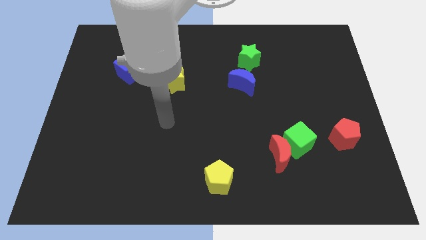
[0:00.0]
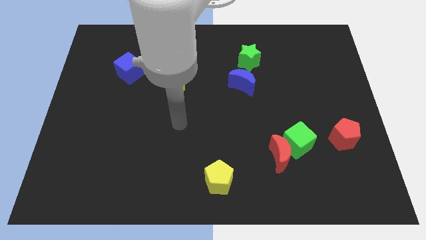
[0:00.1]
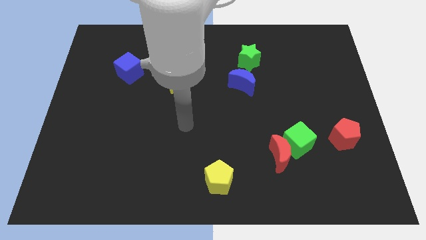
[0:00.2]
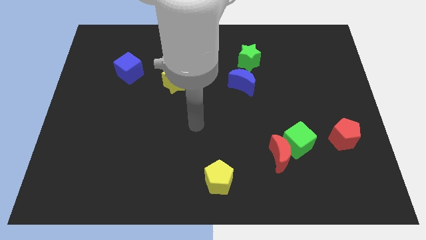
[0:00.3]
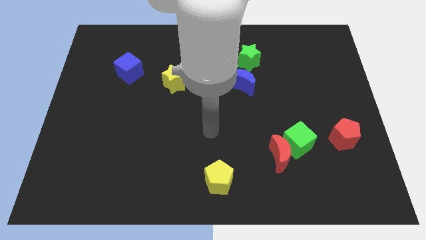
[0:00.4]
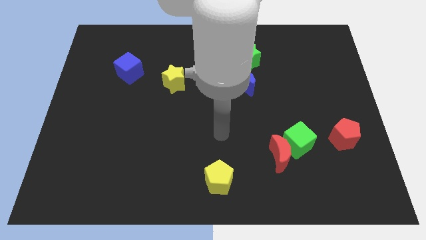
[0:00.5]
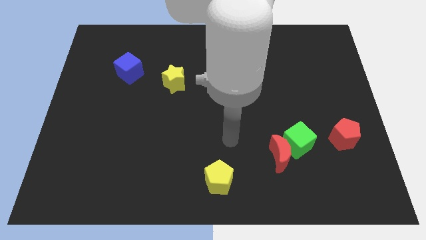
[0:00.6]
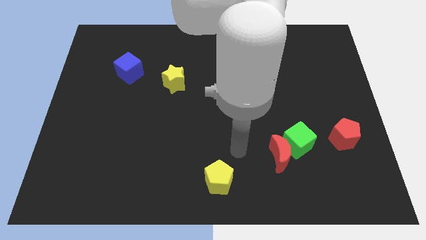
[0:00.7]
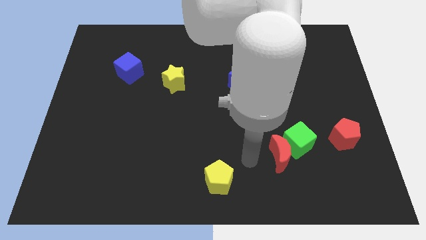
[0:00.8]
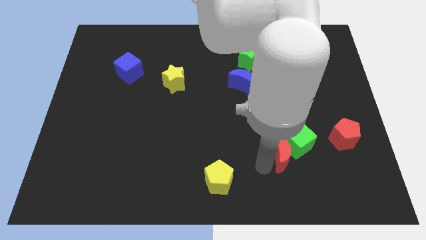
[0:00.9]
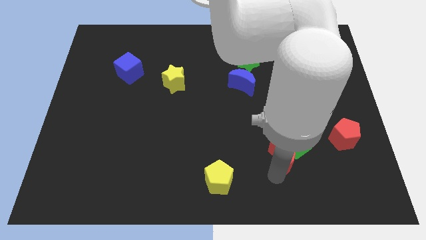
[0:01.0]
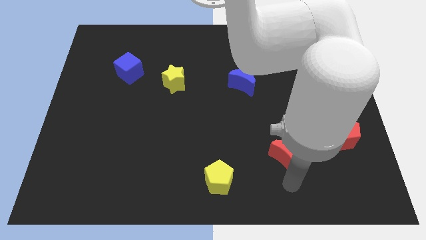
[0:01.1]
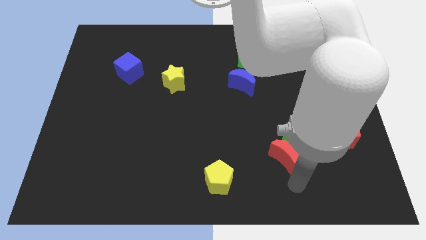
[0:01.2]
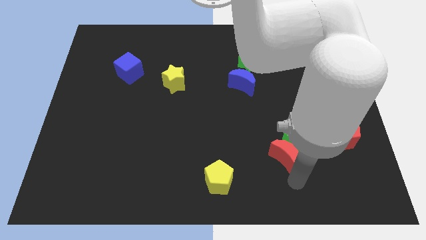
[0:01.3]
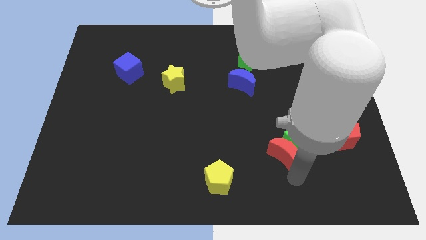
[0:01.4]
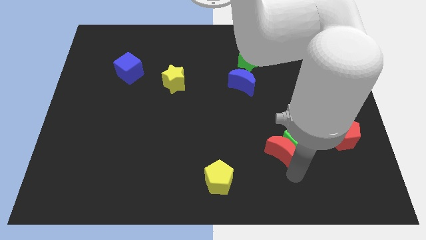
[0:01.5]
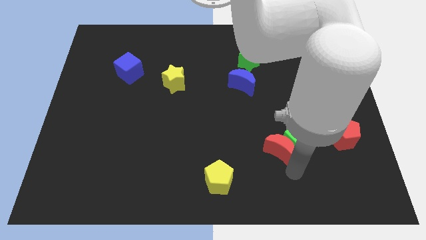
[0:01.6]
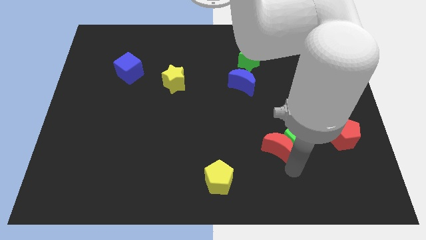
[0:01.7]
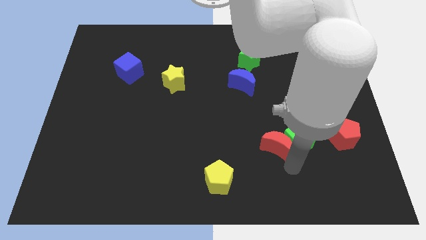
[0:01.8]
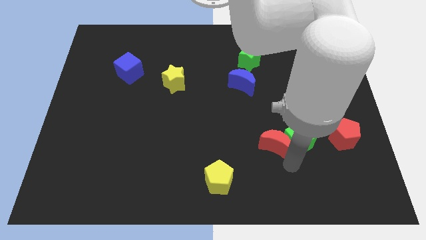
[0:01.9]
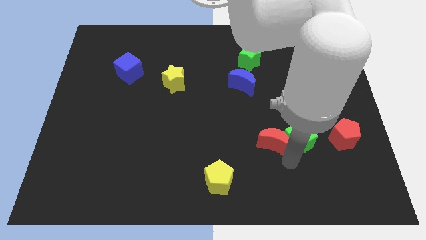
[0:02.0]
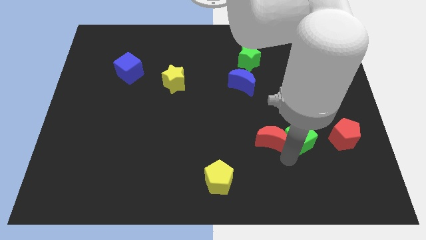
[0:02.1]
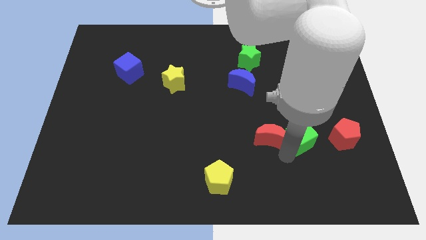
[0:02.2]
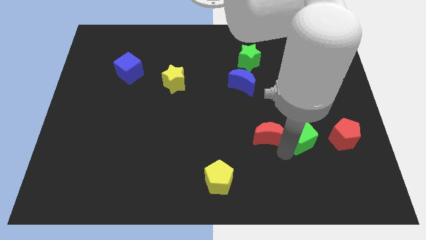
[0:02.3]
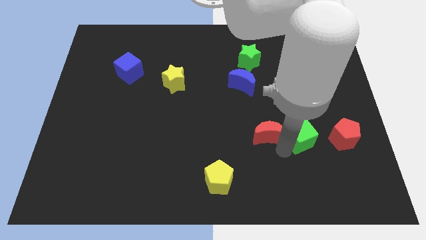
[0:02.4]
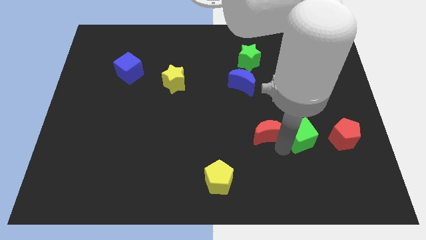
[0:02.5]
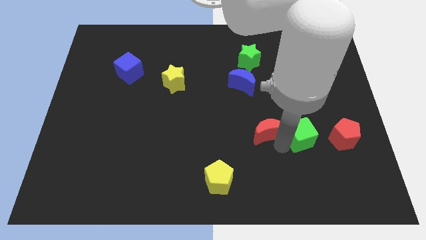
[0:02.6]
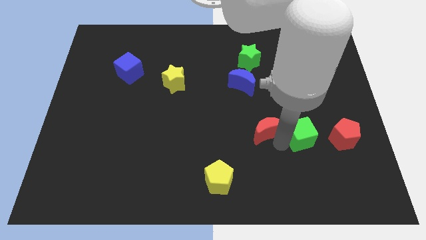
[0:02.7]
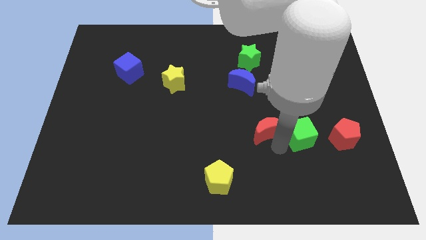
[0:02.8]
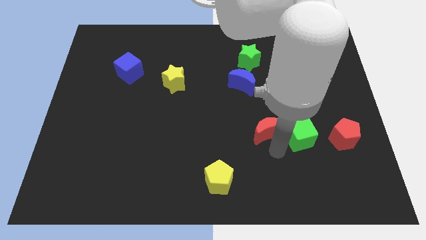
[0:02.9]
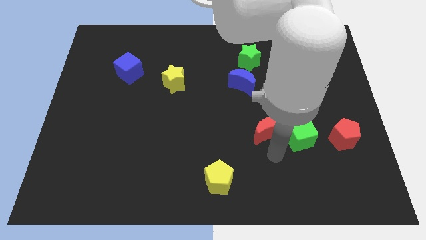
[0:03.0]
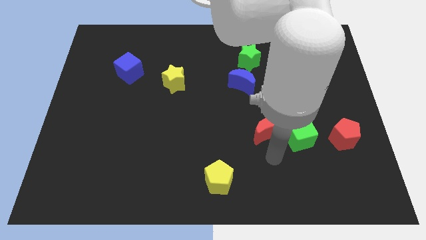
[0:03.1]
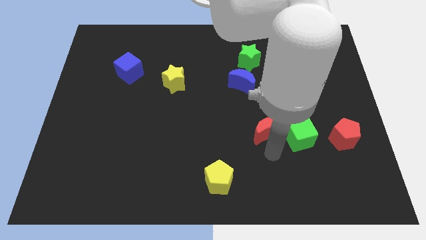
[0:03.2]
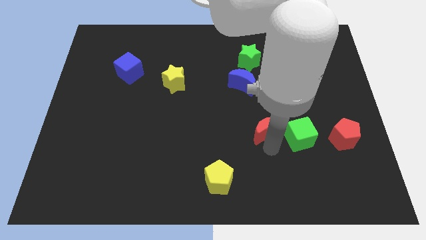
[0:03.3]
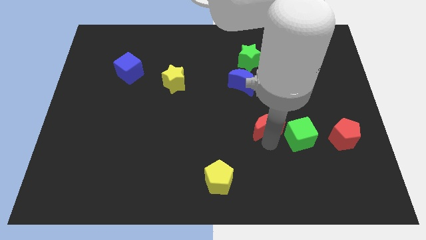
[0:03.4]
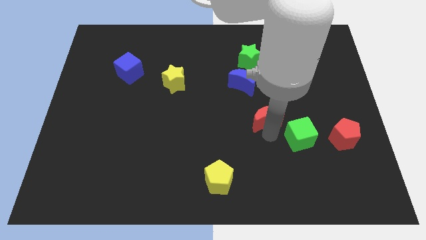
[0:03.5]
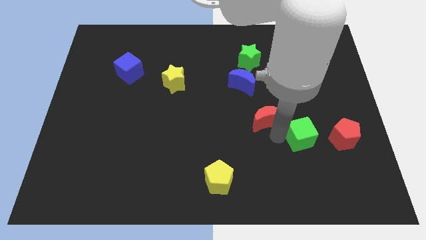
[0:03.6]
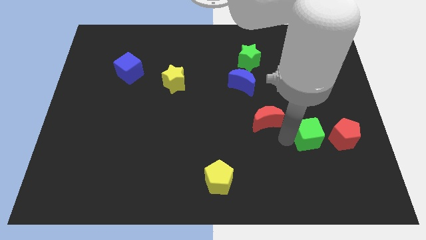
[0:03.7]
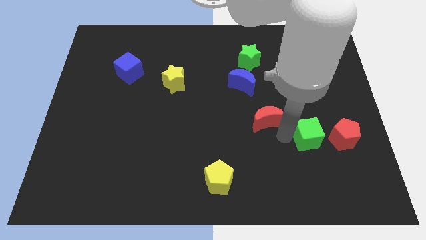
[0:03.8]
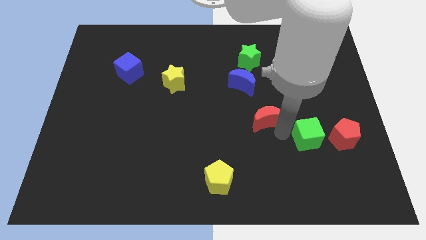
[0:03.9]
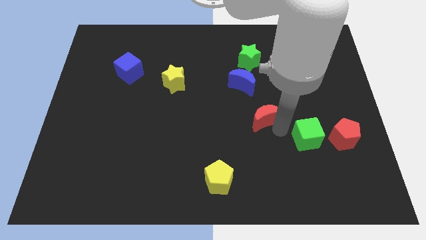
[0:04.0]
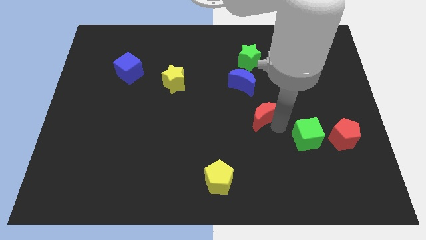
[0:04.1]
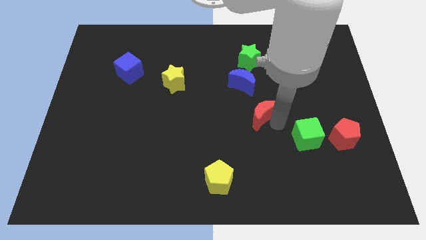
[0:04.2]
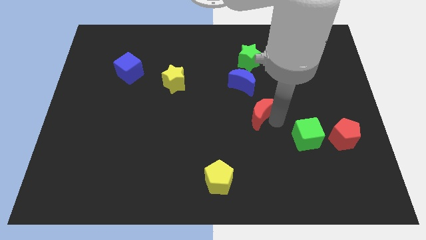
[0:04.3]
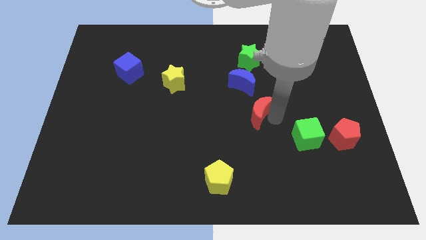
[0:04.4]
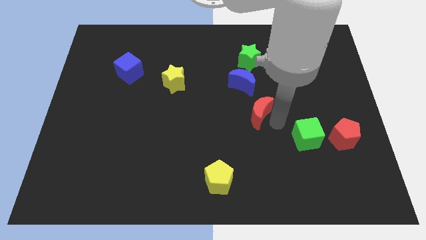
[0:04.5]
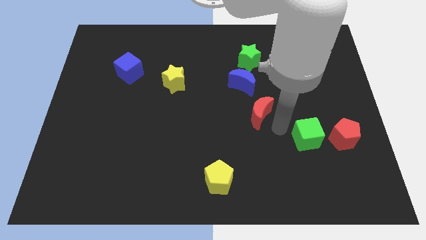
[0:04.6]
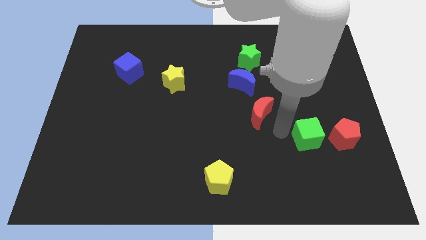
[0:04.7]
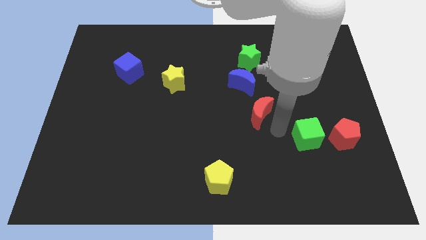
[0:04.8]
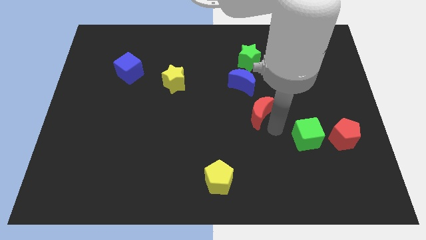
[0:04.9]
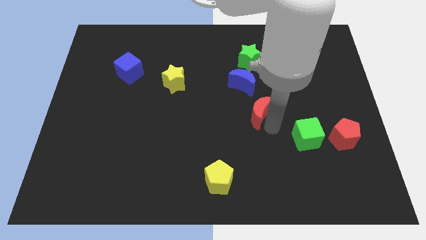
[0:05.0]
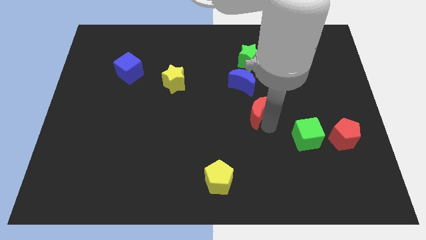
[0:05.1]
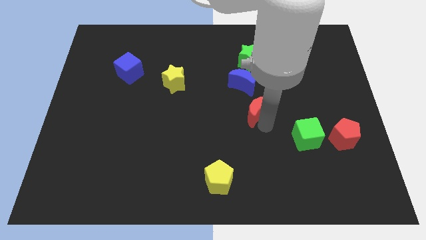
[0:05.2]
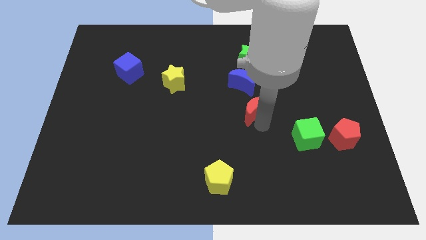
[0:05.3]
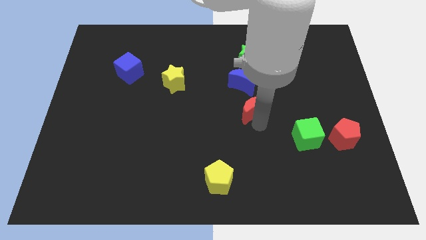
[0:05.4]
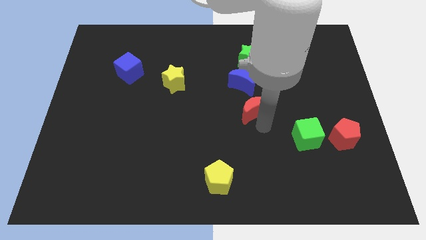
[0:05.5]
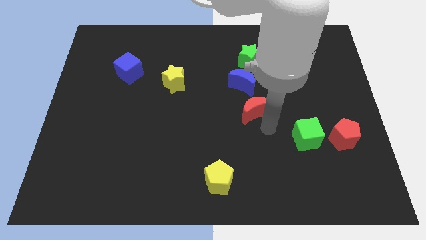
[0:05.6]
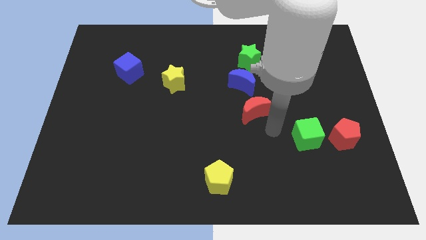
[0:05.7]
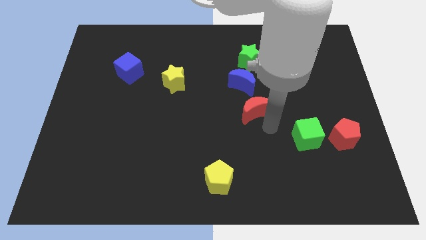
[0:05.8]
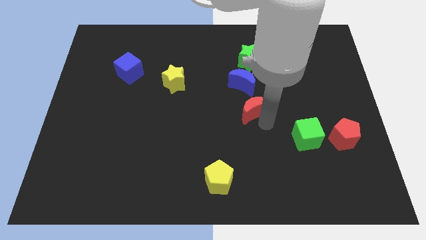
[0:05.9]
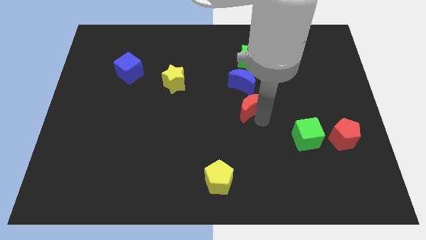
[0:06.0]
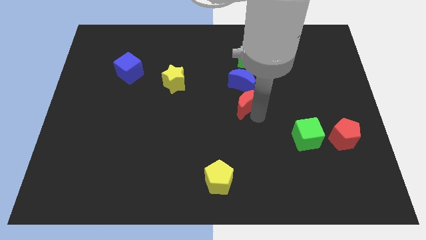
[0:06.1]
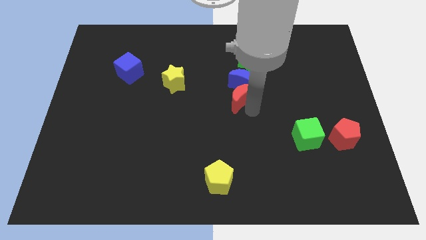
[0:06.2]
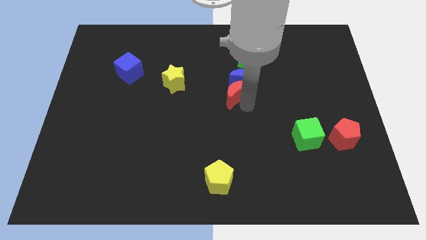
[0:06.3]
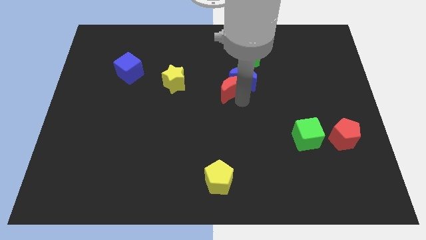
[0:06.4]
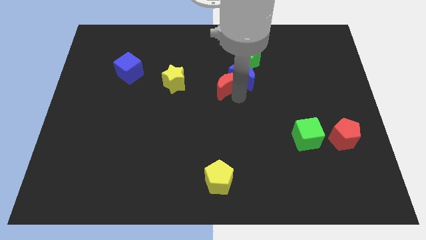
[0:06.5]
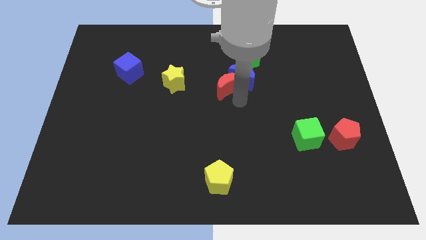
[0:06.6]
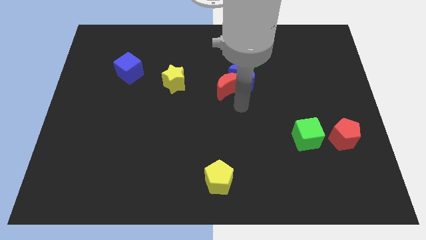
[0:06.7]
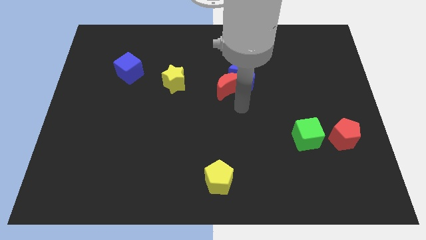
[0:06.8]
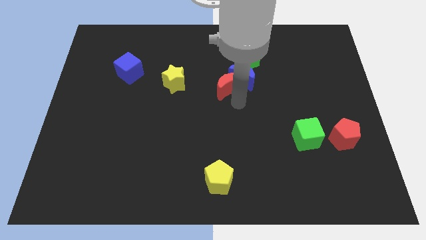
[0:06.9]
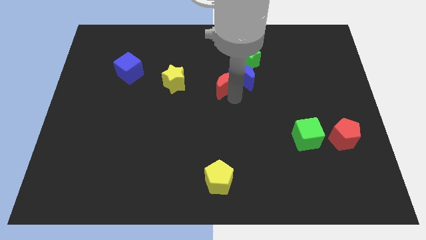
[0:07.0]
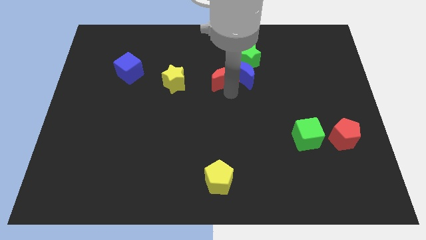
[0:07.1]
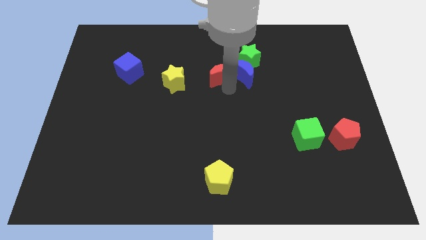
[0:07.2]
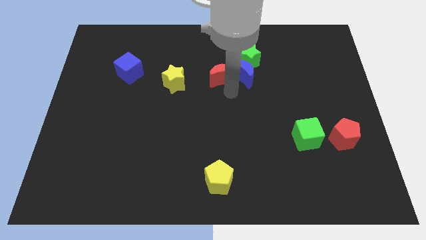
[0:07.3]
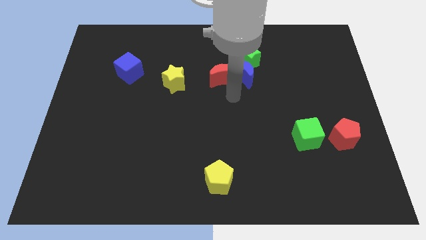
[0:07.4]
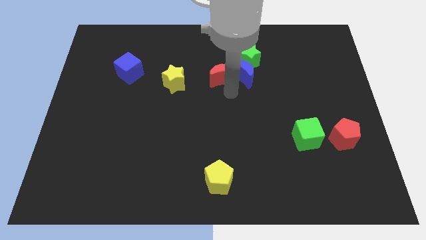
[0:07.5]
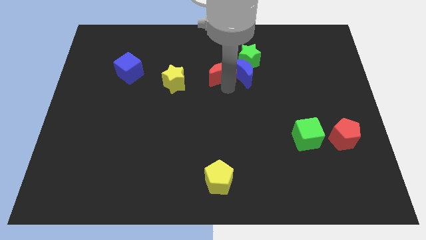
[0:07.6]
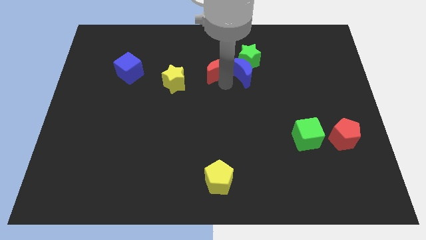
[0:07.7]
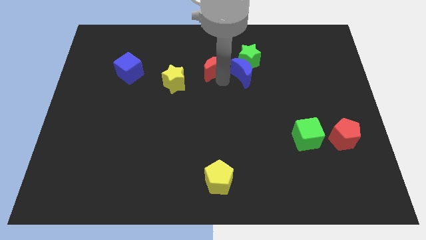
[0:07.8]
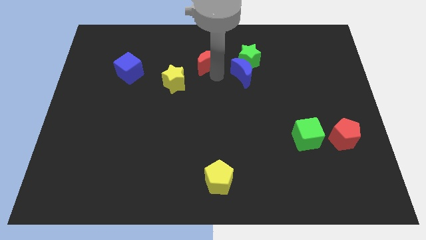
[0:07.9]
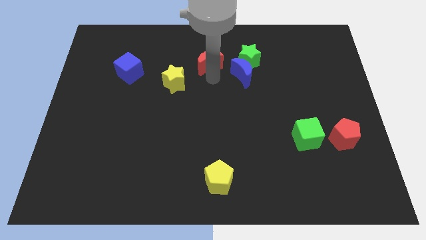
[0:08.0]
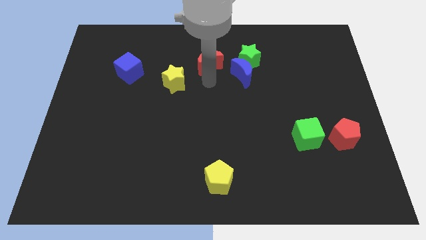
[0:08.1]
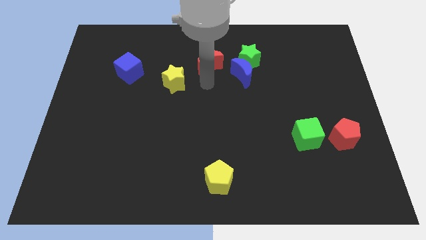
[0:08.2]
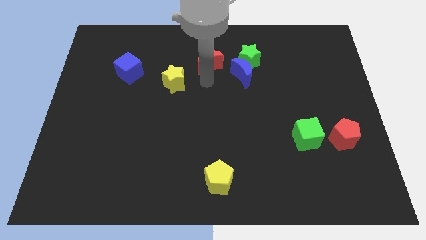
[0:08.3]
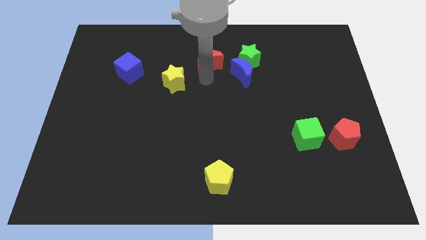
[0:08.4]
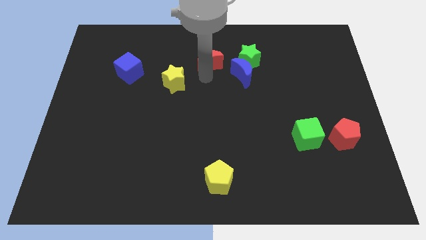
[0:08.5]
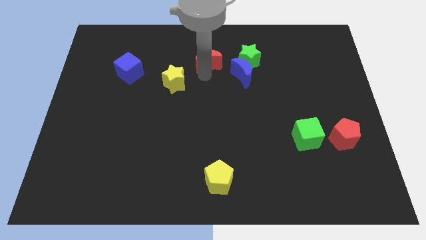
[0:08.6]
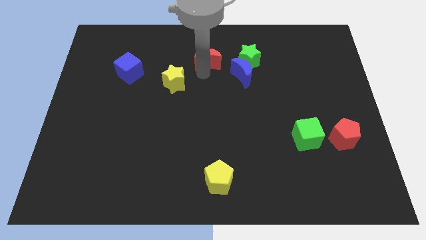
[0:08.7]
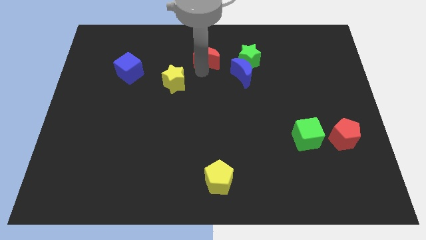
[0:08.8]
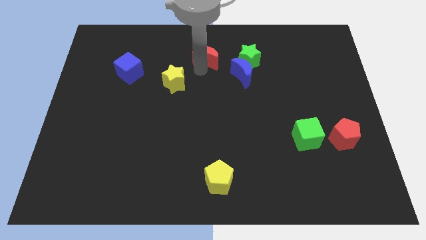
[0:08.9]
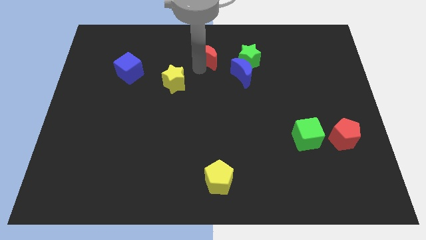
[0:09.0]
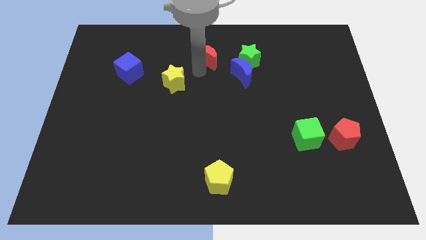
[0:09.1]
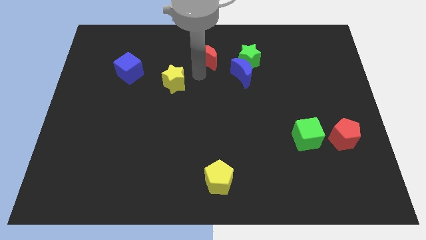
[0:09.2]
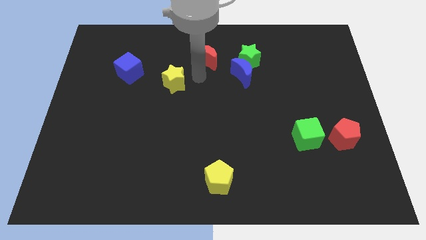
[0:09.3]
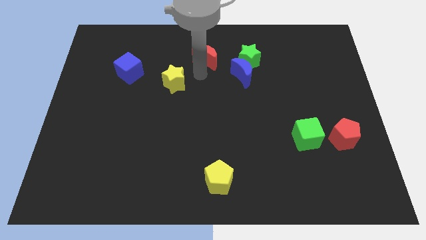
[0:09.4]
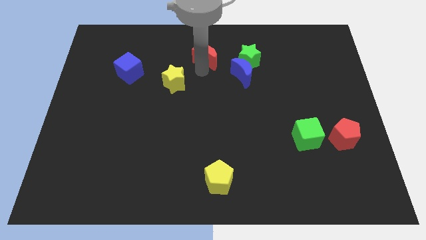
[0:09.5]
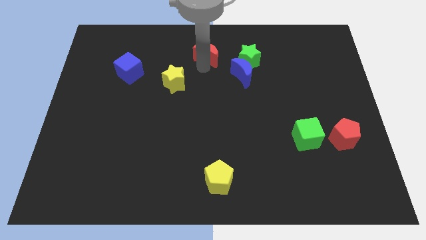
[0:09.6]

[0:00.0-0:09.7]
push the red moon to the top side
